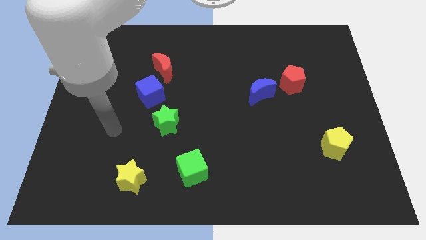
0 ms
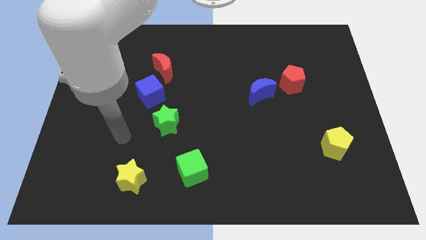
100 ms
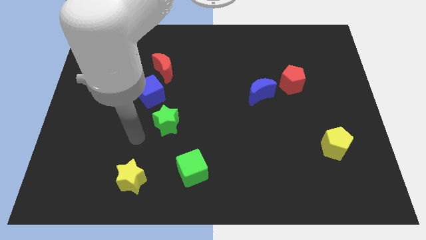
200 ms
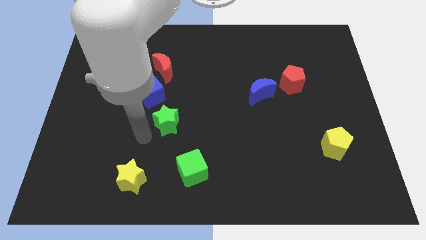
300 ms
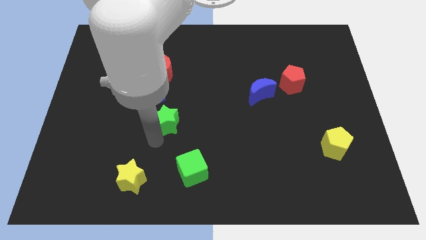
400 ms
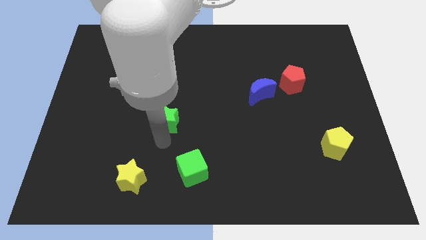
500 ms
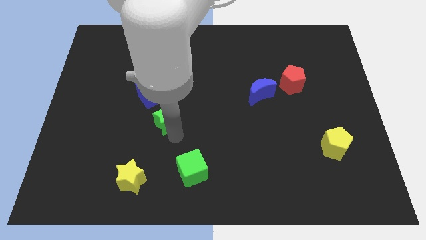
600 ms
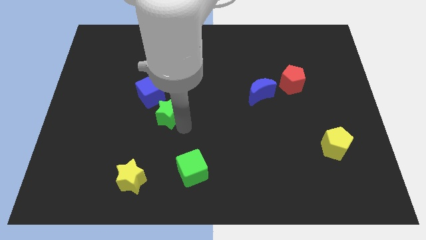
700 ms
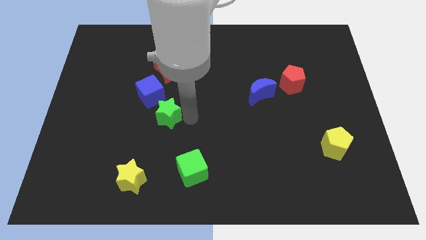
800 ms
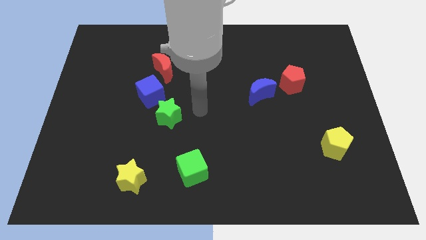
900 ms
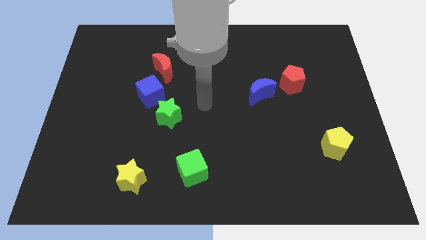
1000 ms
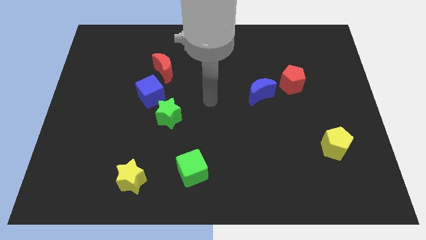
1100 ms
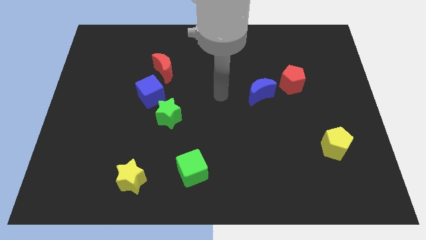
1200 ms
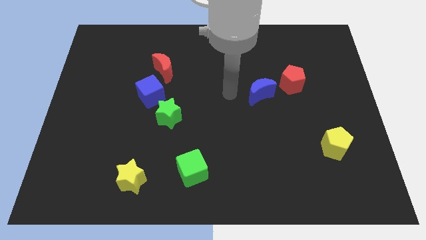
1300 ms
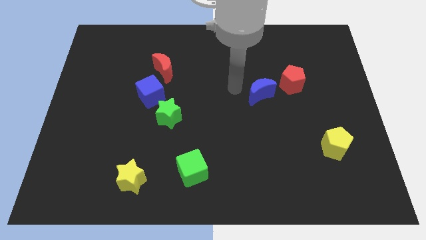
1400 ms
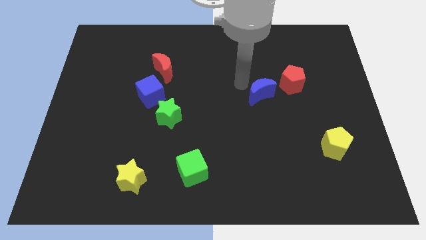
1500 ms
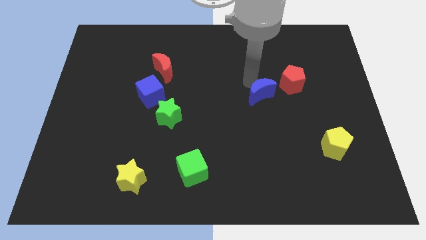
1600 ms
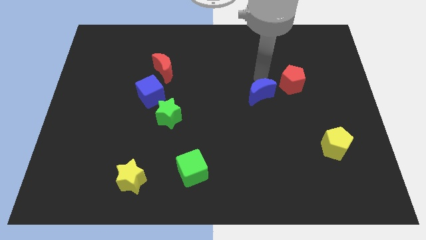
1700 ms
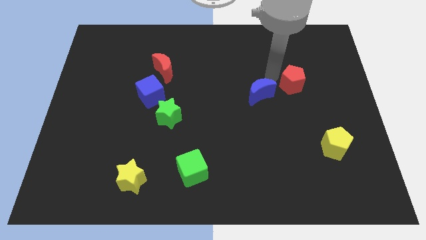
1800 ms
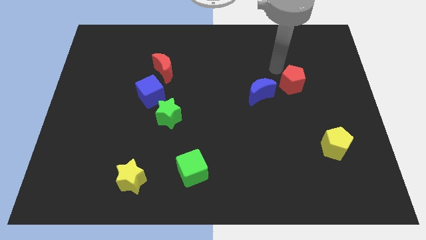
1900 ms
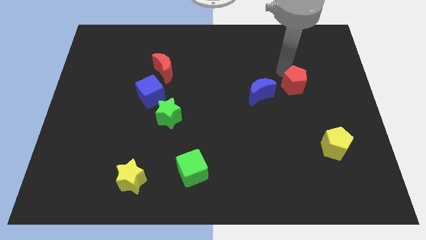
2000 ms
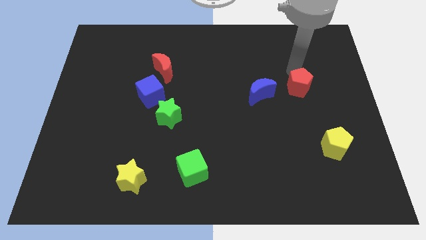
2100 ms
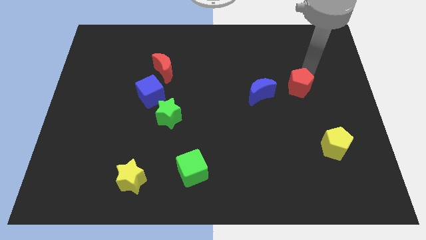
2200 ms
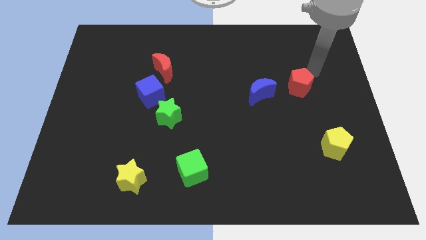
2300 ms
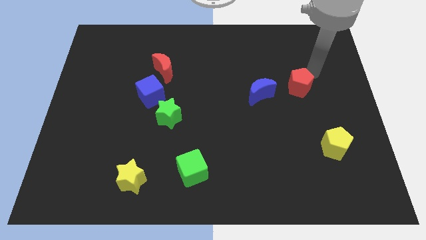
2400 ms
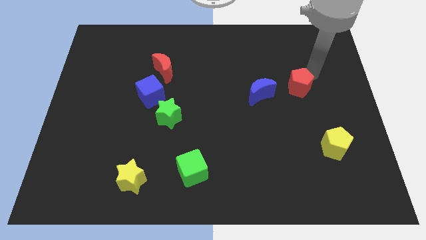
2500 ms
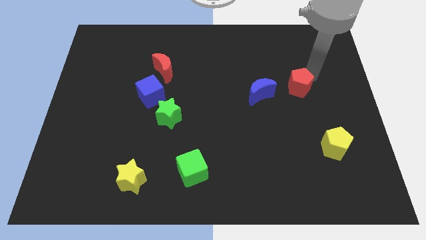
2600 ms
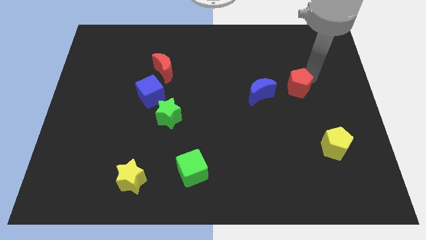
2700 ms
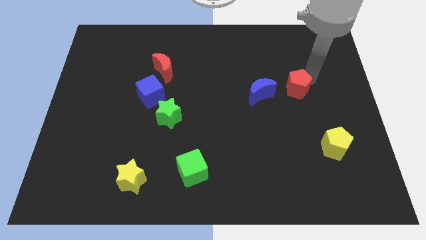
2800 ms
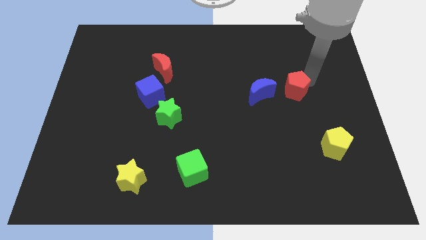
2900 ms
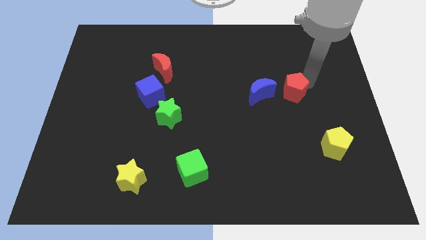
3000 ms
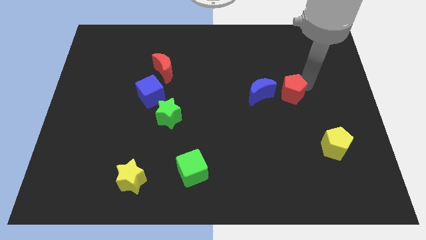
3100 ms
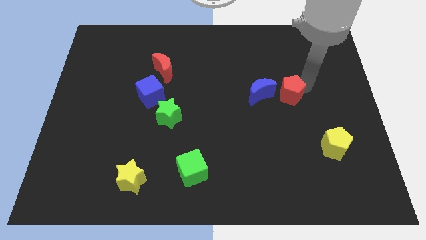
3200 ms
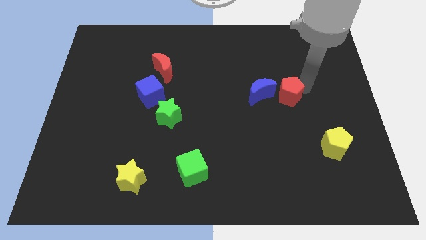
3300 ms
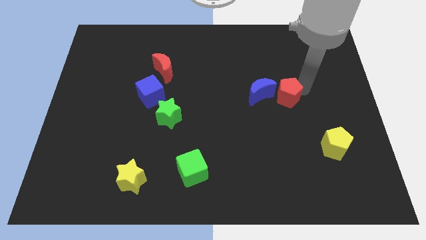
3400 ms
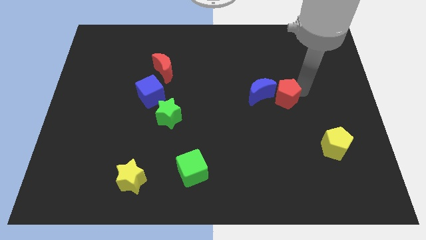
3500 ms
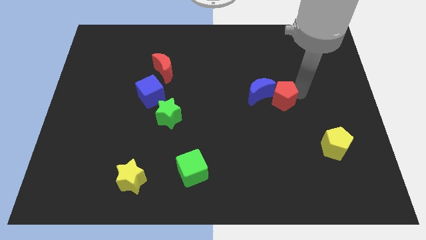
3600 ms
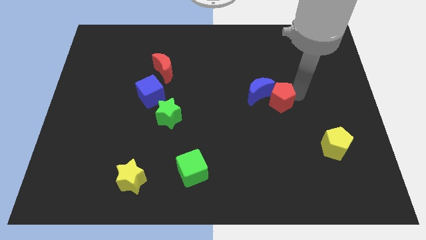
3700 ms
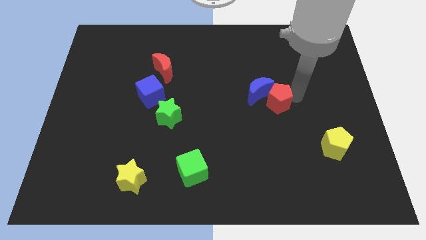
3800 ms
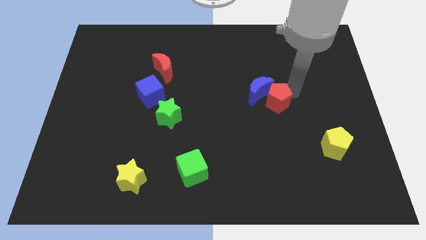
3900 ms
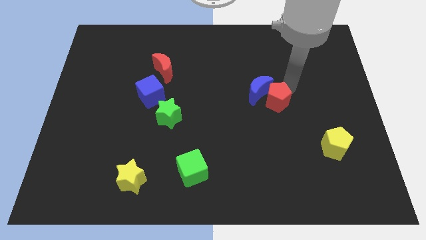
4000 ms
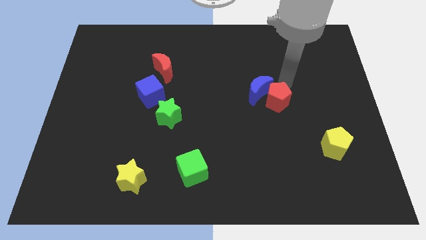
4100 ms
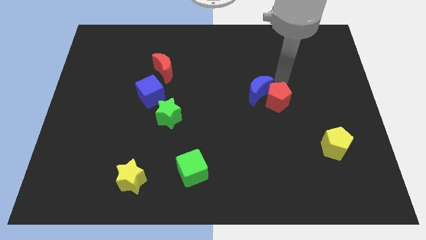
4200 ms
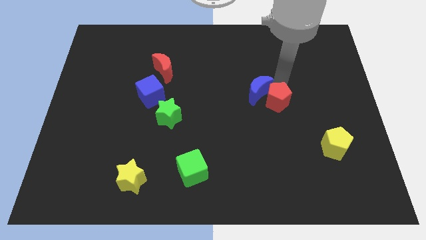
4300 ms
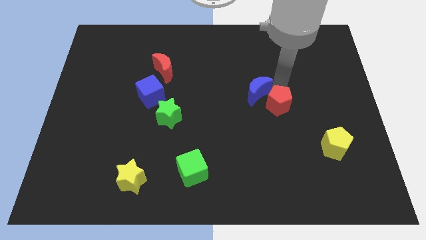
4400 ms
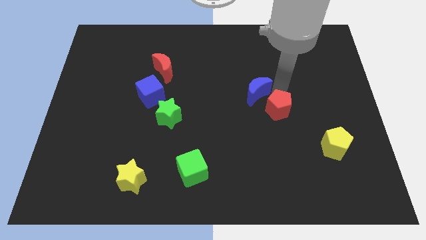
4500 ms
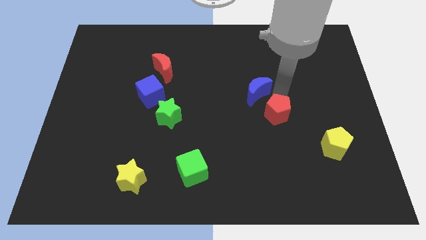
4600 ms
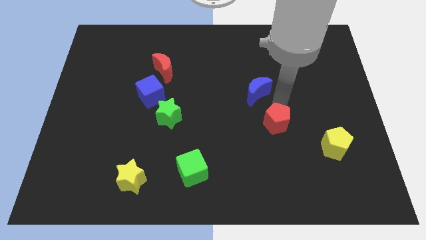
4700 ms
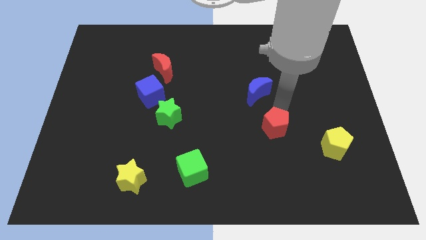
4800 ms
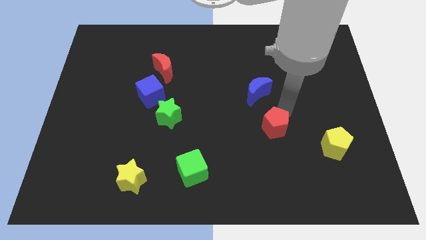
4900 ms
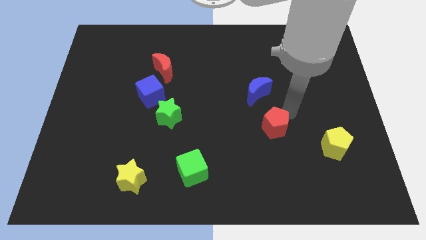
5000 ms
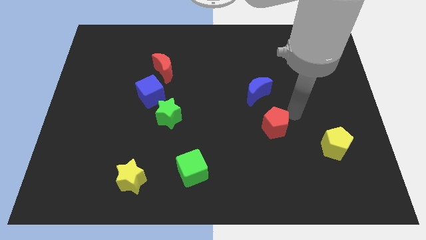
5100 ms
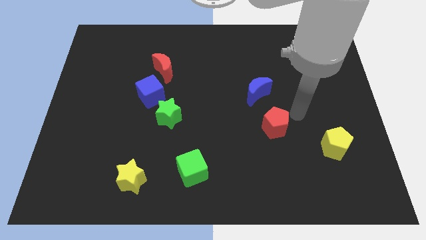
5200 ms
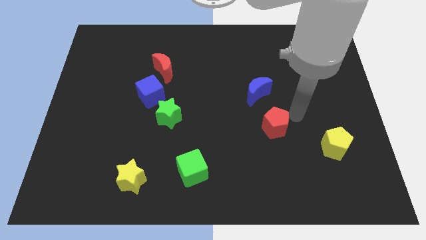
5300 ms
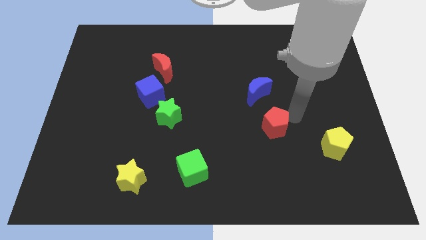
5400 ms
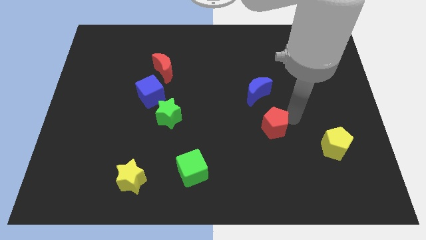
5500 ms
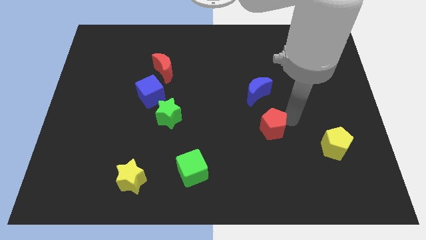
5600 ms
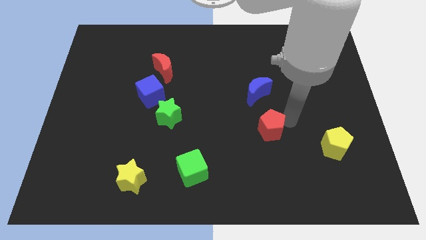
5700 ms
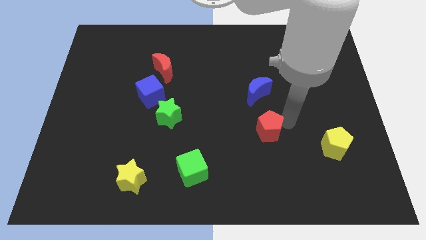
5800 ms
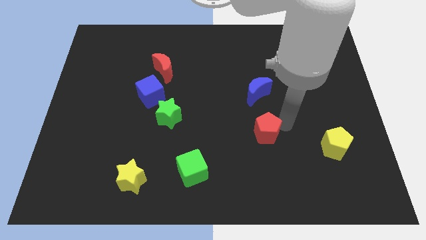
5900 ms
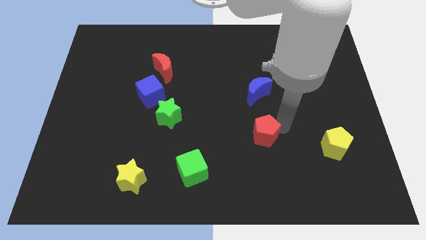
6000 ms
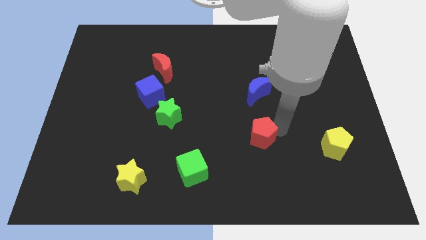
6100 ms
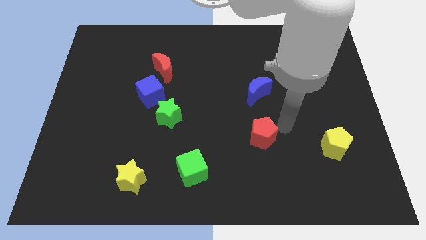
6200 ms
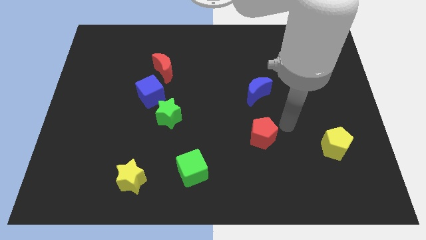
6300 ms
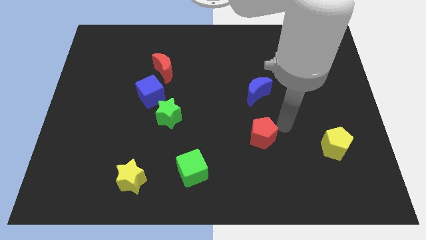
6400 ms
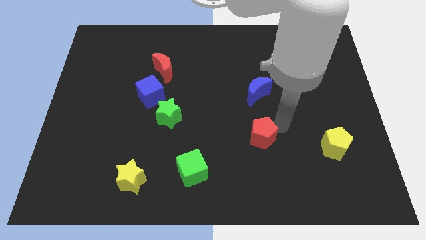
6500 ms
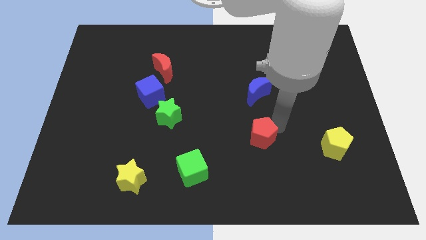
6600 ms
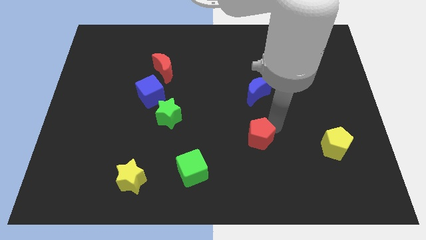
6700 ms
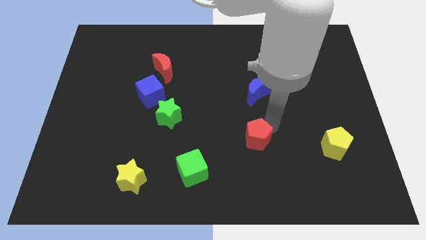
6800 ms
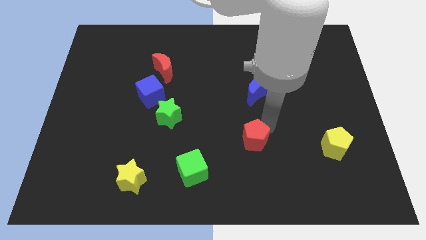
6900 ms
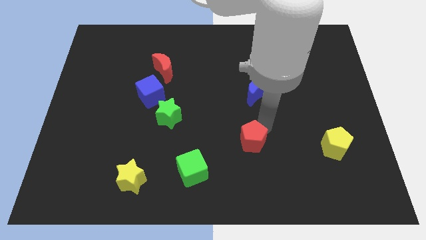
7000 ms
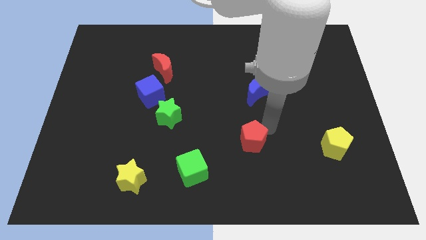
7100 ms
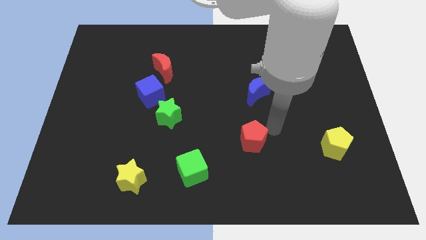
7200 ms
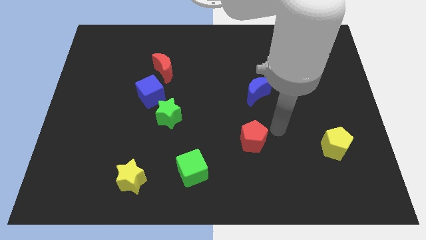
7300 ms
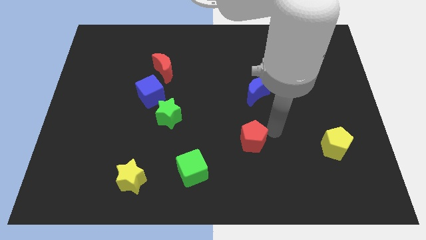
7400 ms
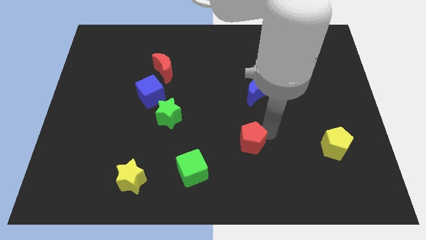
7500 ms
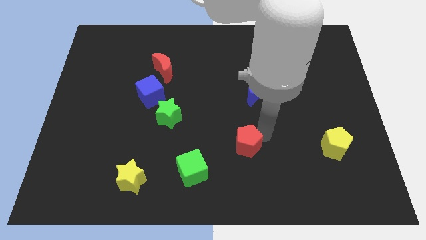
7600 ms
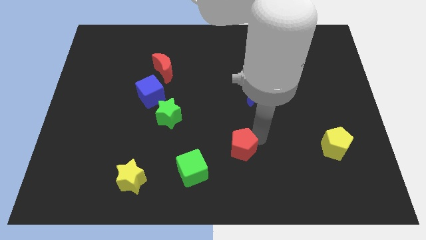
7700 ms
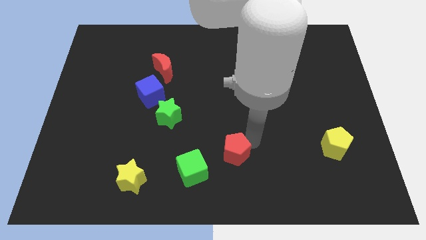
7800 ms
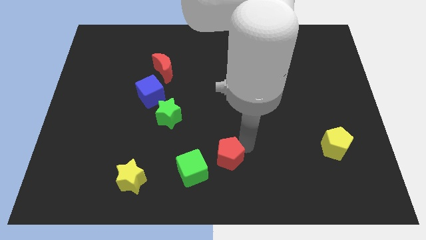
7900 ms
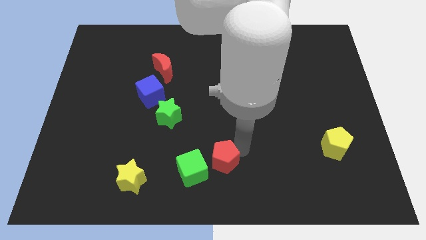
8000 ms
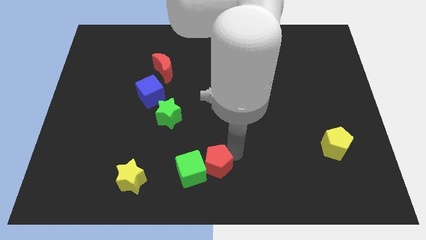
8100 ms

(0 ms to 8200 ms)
push the red pentagon towards the green cube
